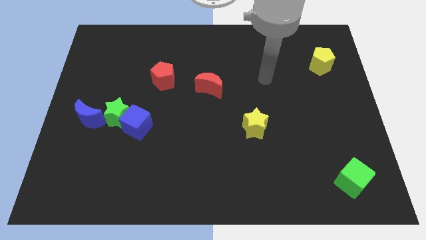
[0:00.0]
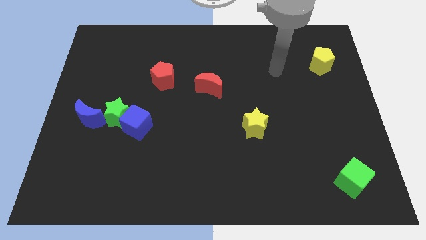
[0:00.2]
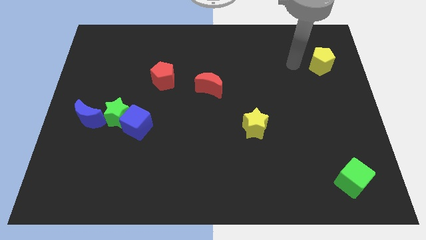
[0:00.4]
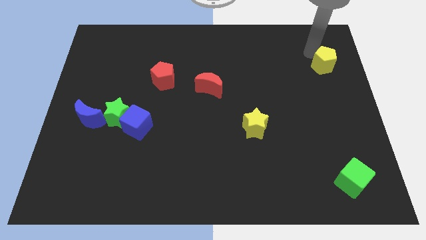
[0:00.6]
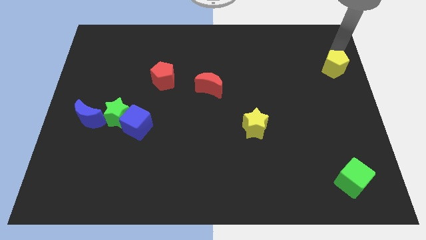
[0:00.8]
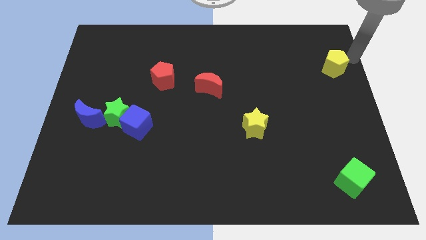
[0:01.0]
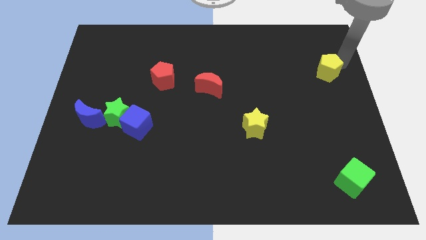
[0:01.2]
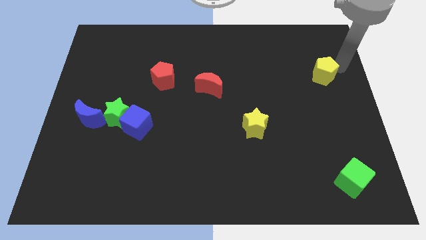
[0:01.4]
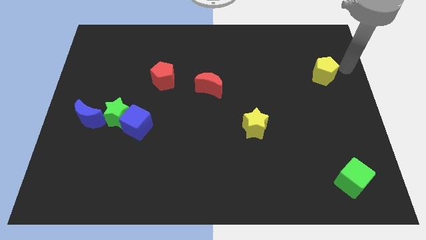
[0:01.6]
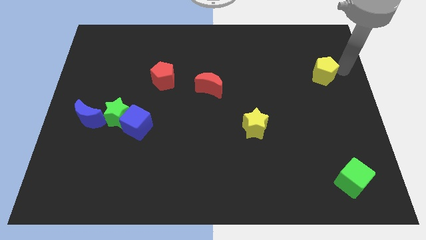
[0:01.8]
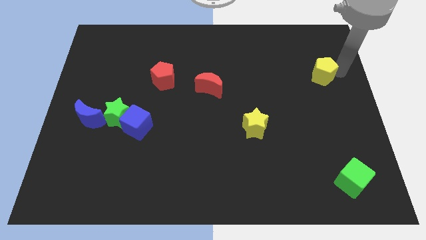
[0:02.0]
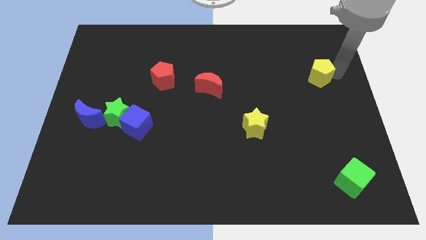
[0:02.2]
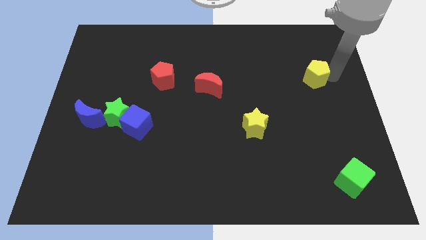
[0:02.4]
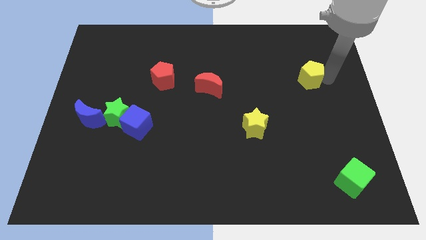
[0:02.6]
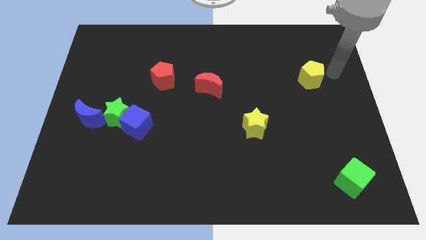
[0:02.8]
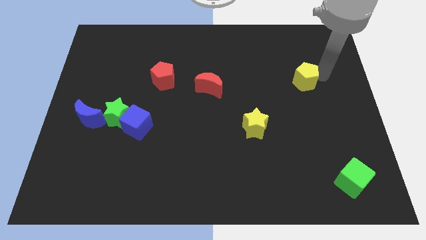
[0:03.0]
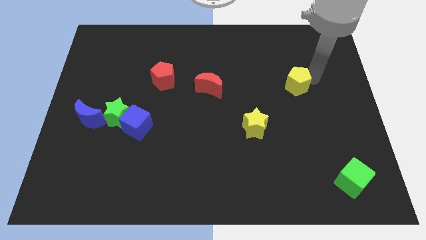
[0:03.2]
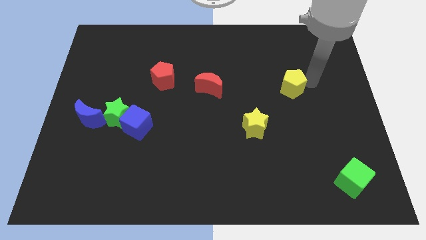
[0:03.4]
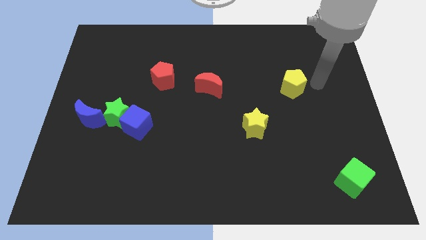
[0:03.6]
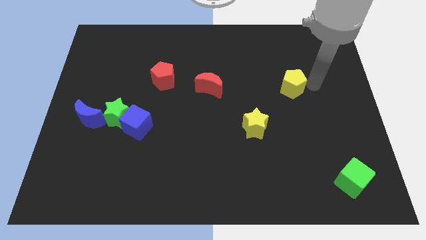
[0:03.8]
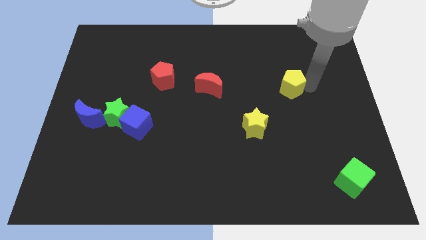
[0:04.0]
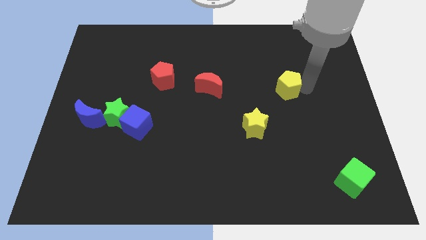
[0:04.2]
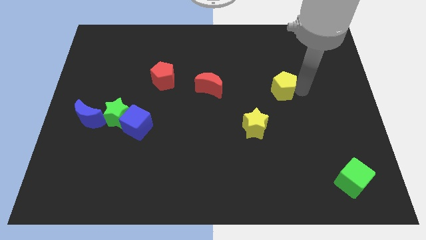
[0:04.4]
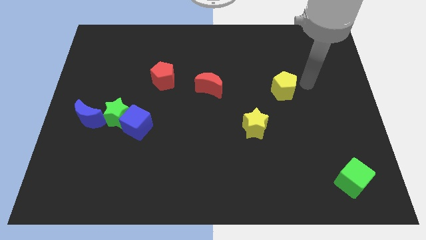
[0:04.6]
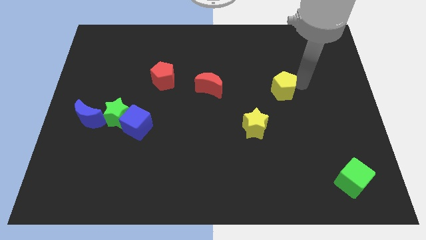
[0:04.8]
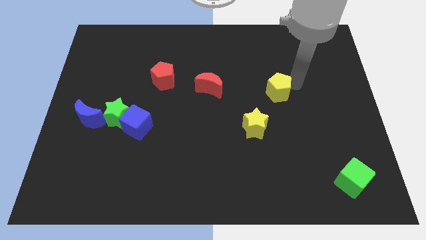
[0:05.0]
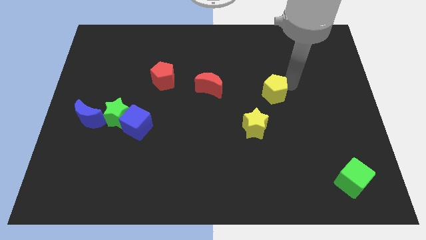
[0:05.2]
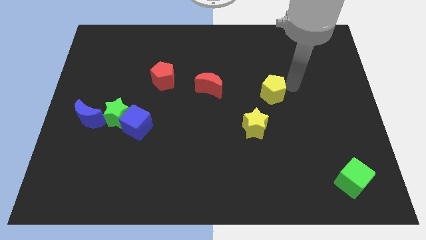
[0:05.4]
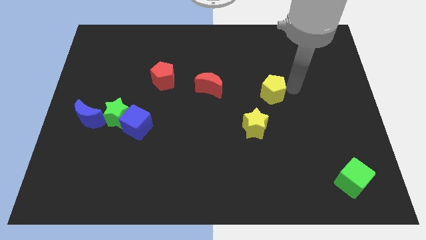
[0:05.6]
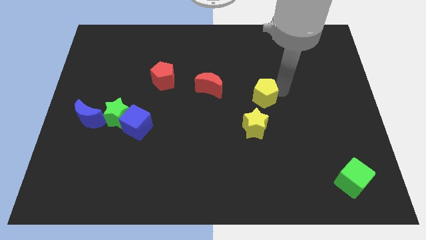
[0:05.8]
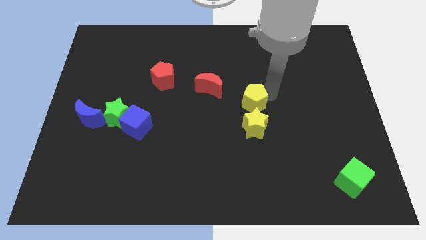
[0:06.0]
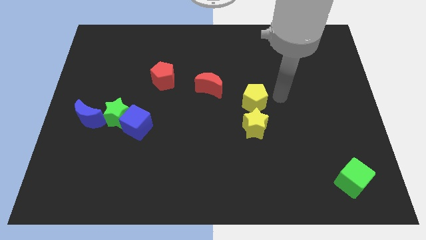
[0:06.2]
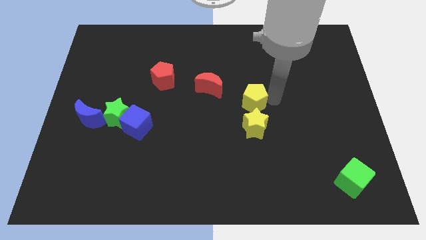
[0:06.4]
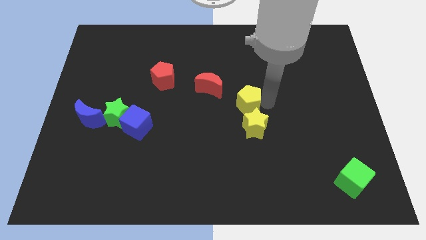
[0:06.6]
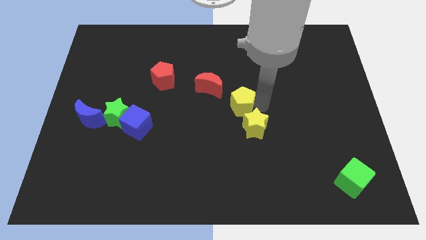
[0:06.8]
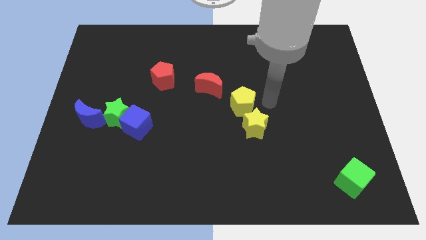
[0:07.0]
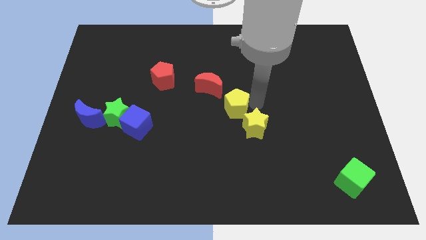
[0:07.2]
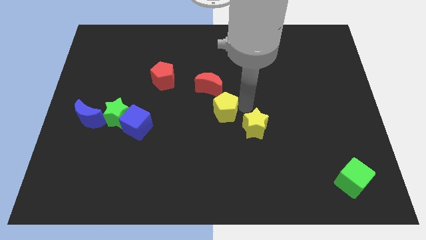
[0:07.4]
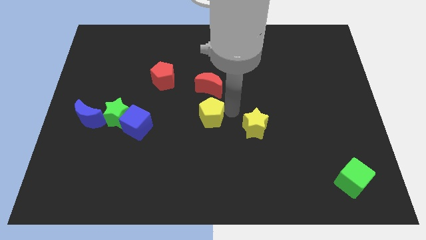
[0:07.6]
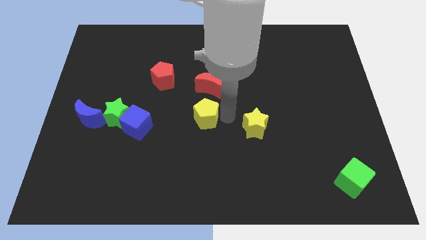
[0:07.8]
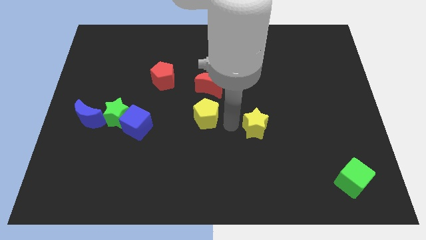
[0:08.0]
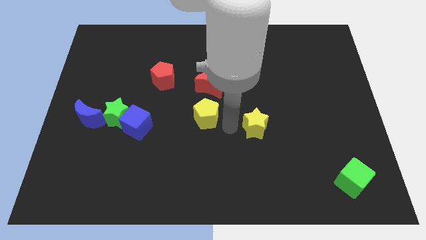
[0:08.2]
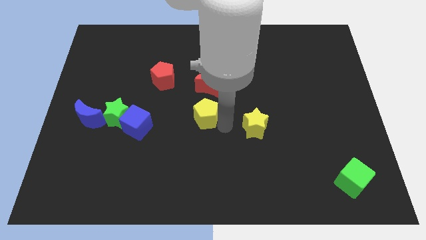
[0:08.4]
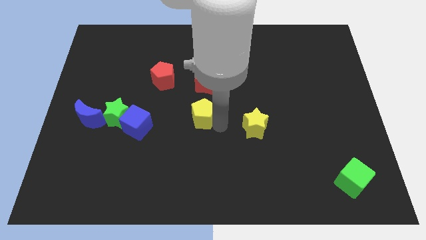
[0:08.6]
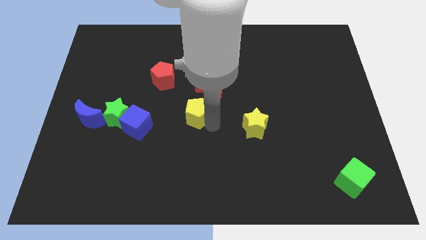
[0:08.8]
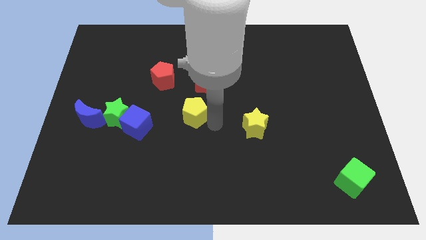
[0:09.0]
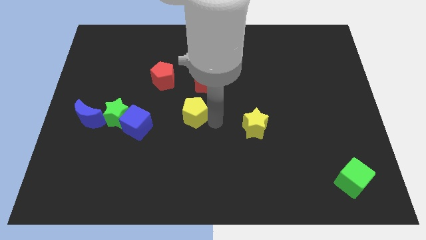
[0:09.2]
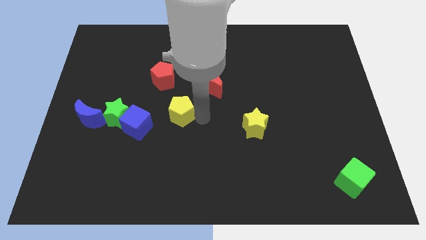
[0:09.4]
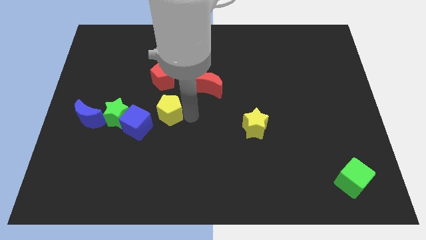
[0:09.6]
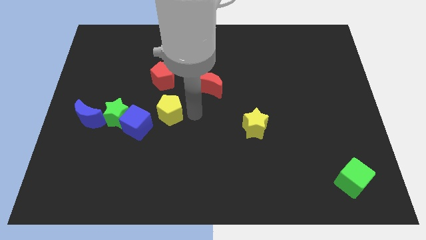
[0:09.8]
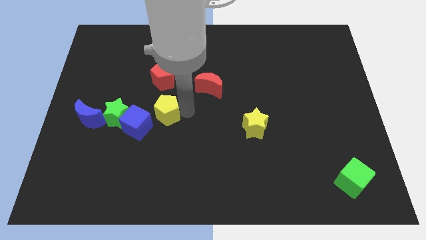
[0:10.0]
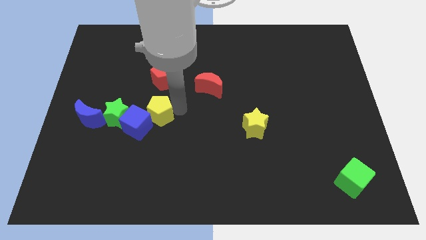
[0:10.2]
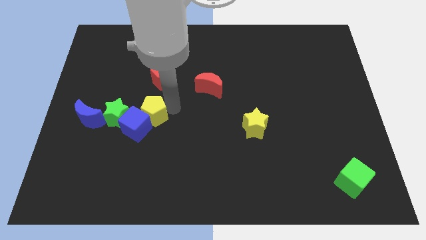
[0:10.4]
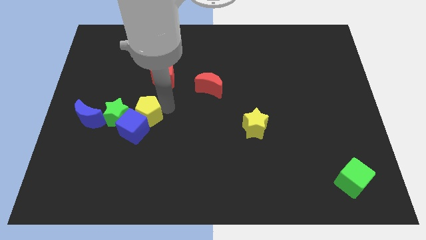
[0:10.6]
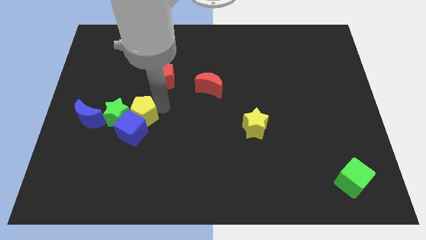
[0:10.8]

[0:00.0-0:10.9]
put the yellow pentagon close to the green star

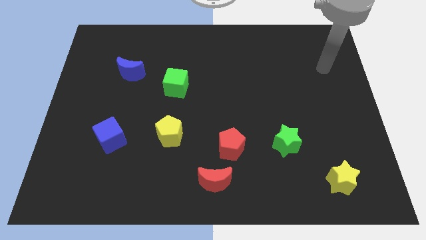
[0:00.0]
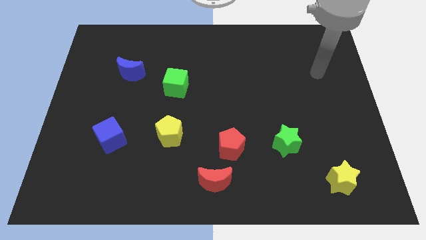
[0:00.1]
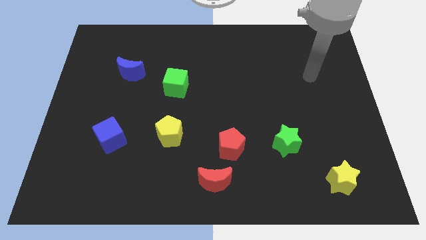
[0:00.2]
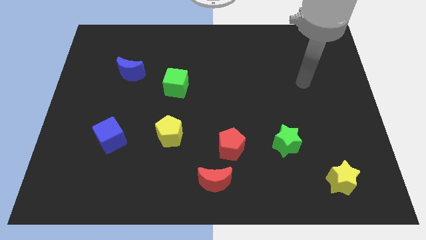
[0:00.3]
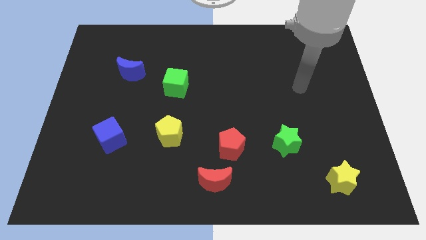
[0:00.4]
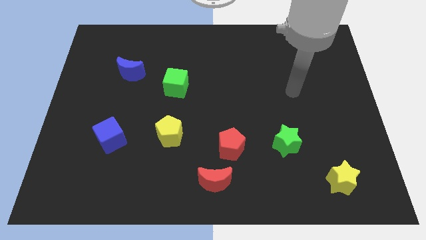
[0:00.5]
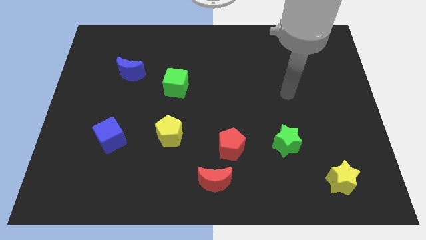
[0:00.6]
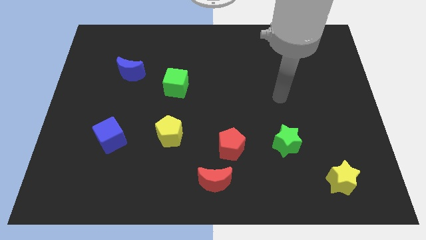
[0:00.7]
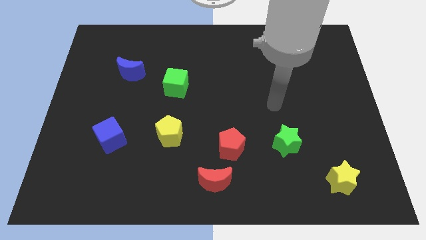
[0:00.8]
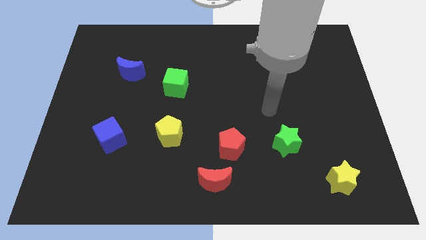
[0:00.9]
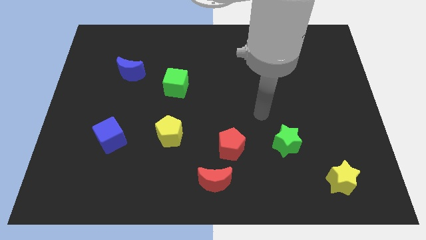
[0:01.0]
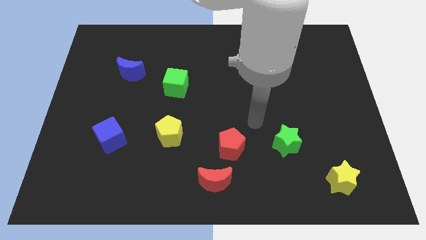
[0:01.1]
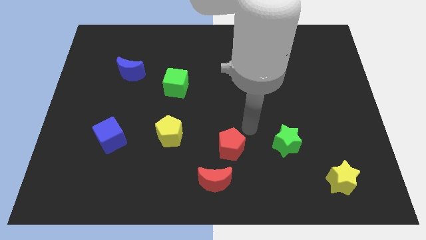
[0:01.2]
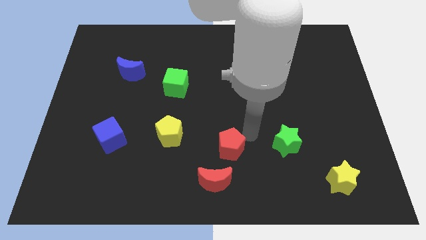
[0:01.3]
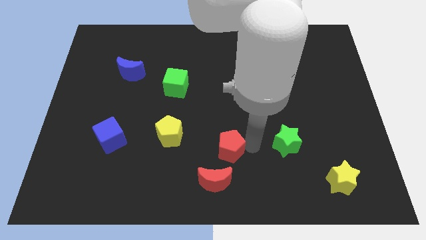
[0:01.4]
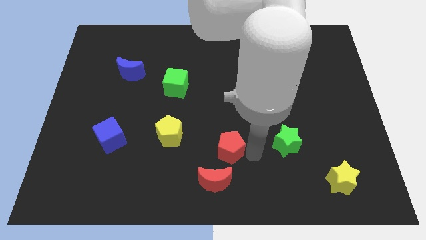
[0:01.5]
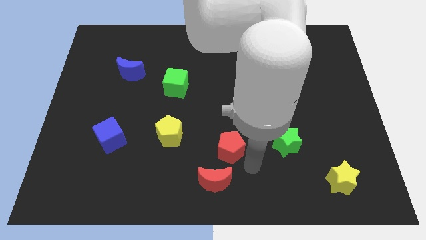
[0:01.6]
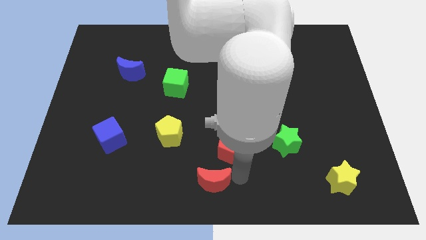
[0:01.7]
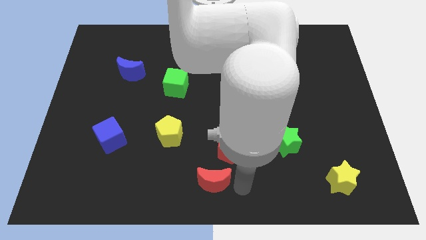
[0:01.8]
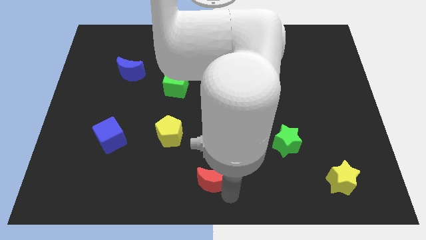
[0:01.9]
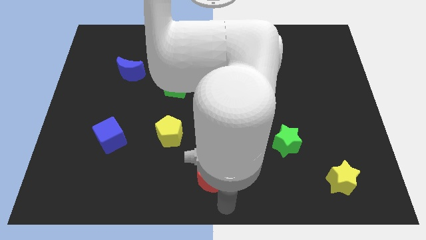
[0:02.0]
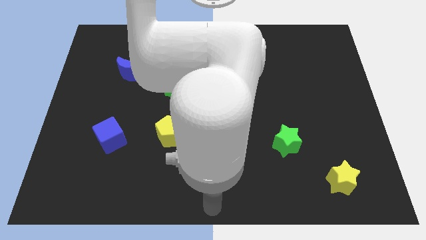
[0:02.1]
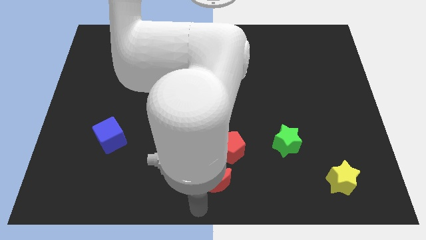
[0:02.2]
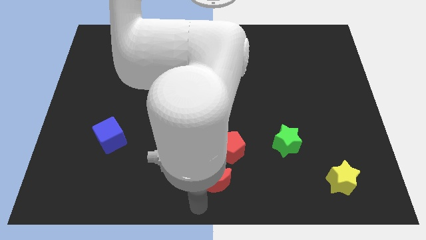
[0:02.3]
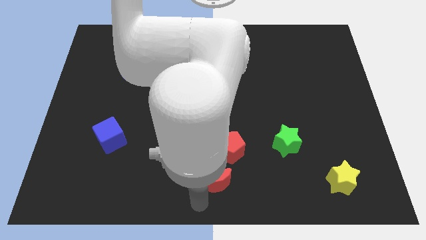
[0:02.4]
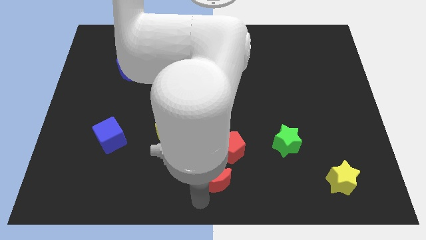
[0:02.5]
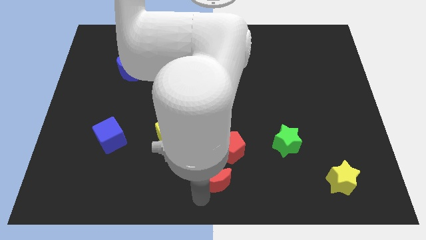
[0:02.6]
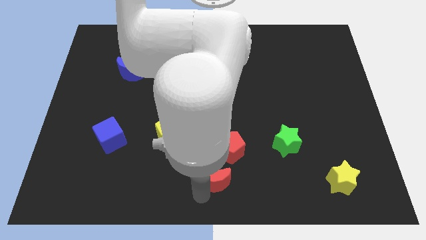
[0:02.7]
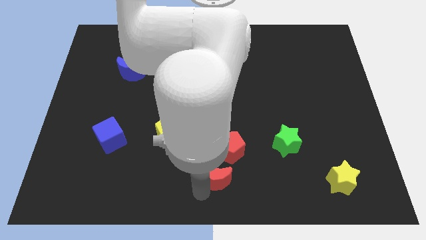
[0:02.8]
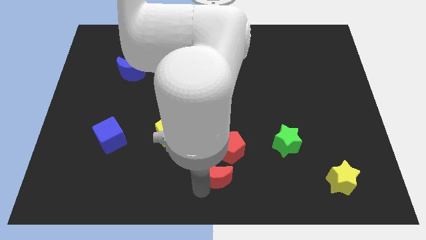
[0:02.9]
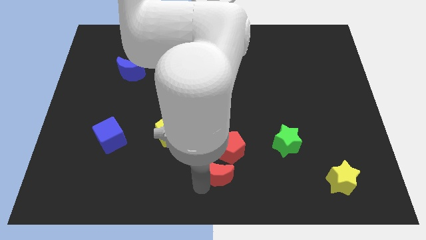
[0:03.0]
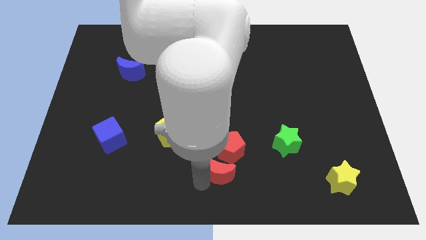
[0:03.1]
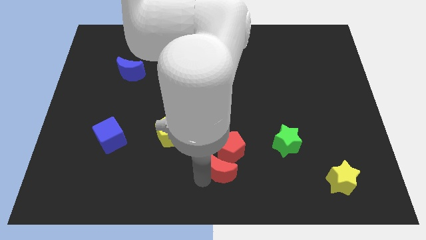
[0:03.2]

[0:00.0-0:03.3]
move the red moon close to the red pentagon
